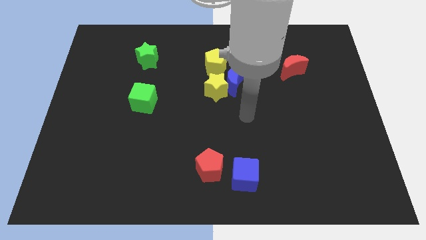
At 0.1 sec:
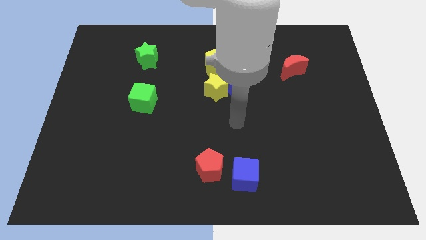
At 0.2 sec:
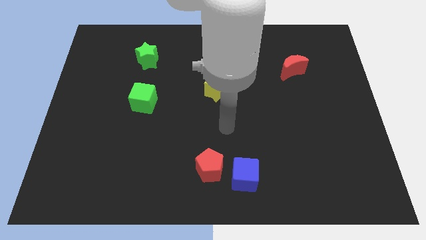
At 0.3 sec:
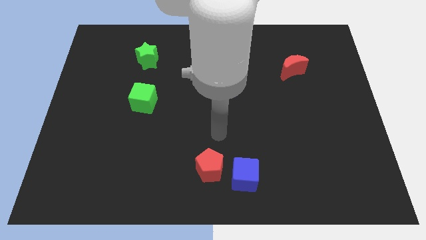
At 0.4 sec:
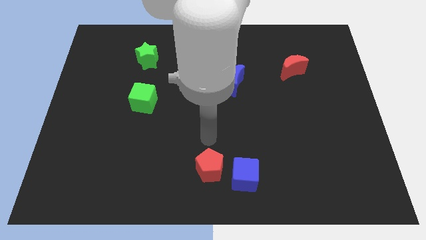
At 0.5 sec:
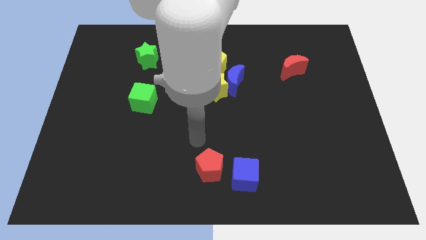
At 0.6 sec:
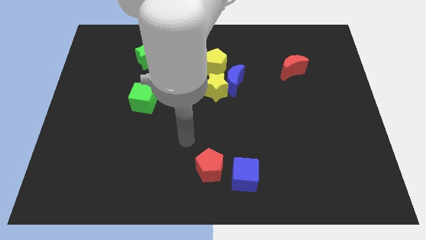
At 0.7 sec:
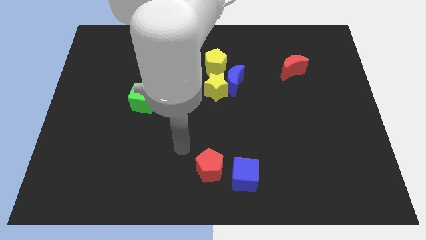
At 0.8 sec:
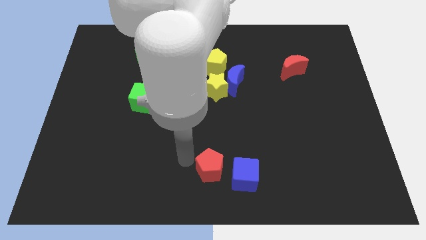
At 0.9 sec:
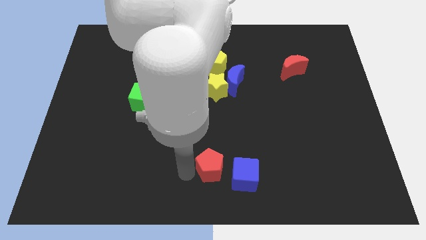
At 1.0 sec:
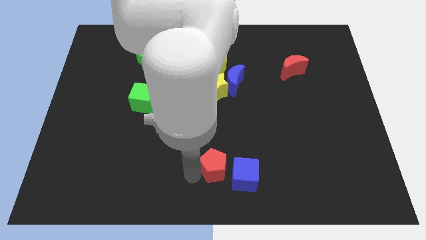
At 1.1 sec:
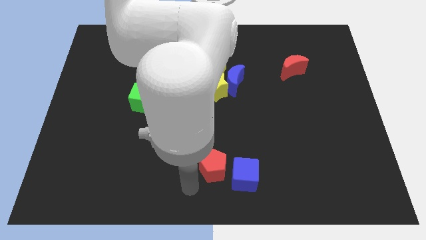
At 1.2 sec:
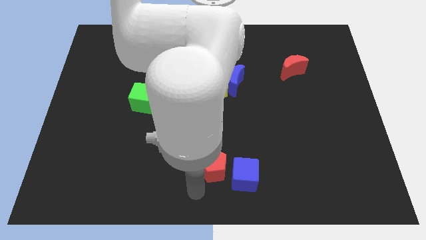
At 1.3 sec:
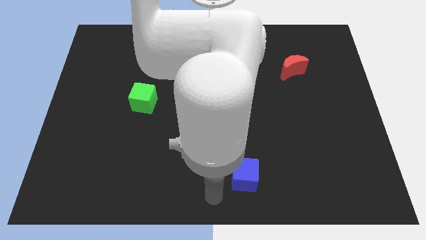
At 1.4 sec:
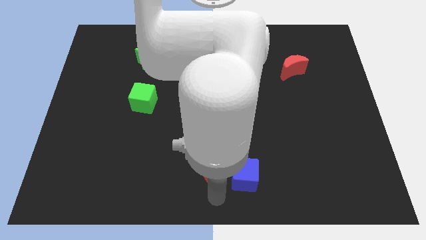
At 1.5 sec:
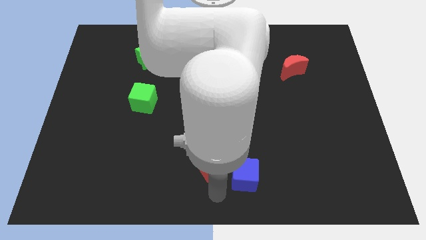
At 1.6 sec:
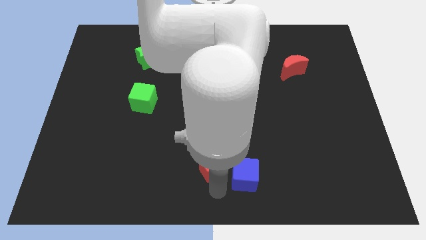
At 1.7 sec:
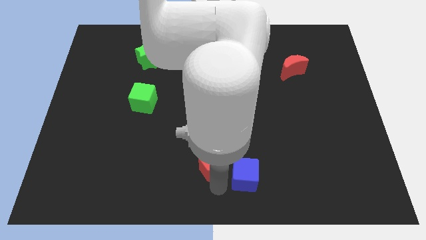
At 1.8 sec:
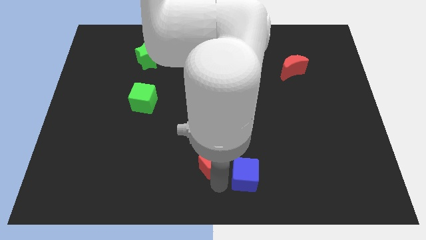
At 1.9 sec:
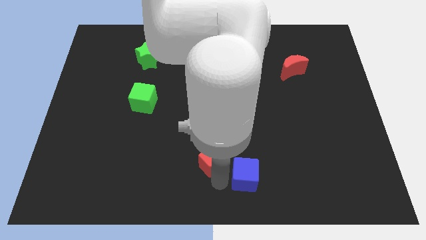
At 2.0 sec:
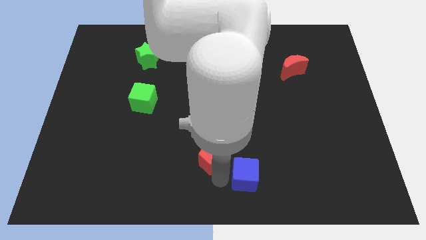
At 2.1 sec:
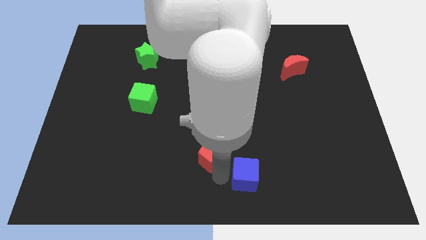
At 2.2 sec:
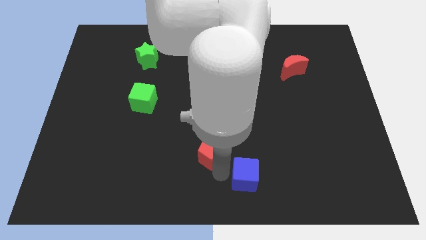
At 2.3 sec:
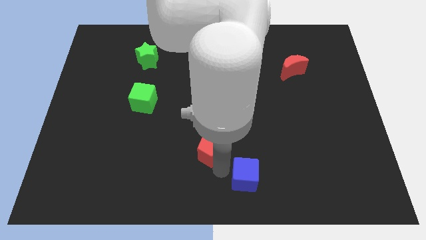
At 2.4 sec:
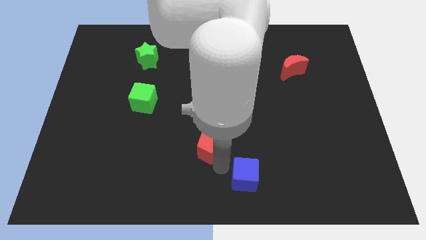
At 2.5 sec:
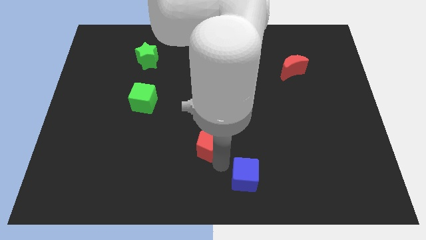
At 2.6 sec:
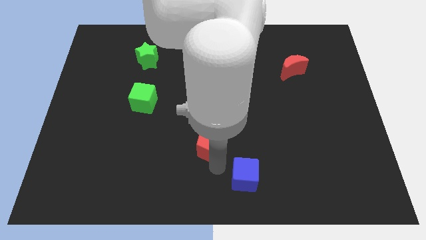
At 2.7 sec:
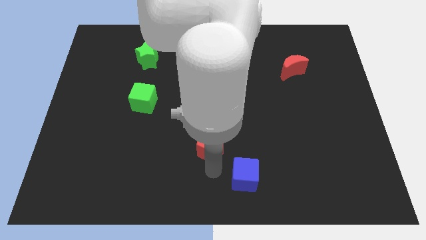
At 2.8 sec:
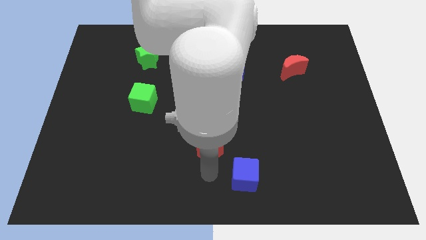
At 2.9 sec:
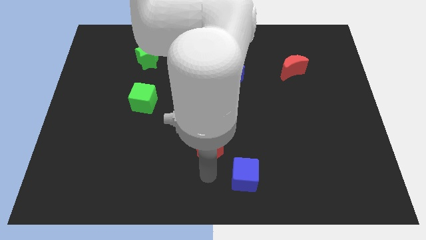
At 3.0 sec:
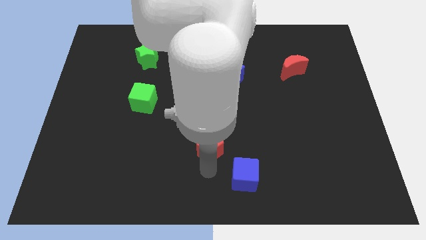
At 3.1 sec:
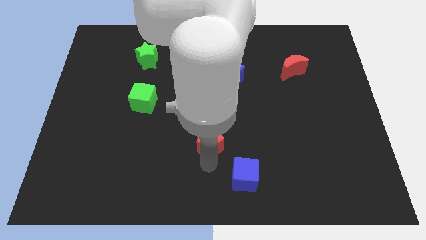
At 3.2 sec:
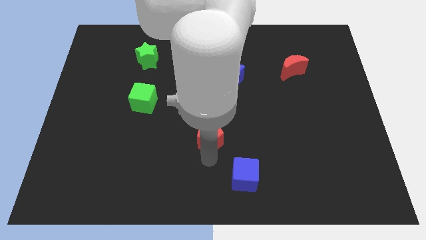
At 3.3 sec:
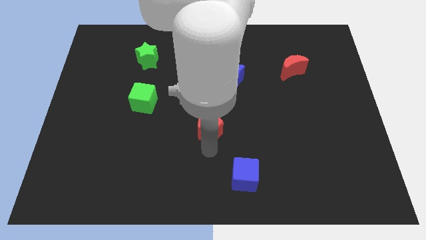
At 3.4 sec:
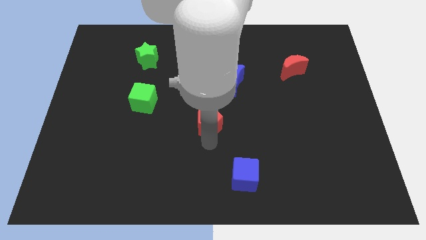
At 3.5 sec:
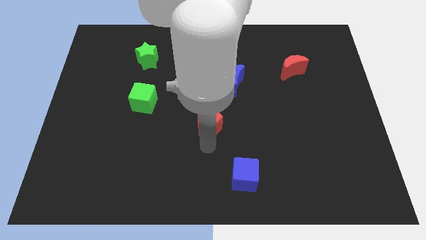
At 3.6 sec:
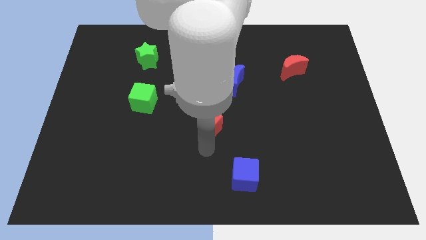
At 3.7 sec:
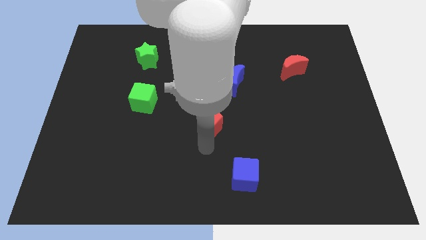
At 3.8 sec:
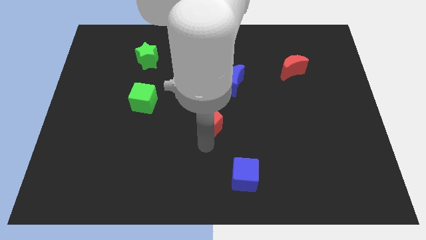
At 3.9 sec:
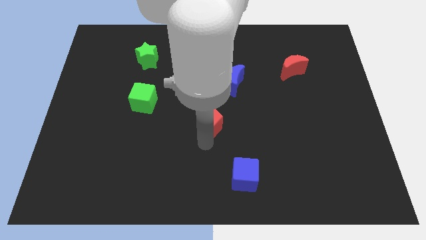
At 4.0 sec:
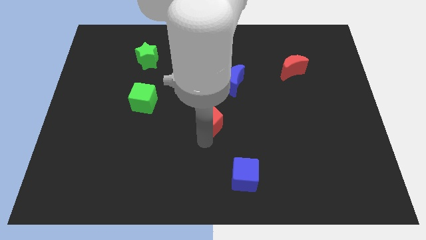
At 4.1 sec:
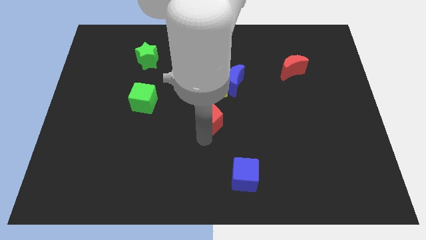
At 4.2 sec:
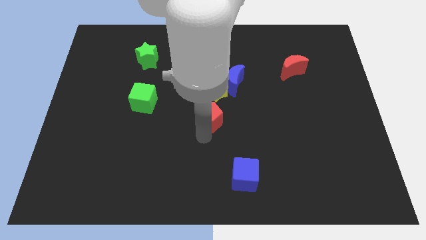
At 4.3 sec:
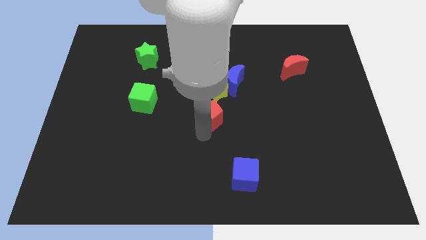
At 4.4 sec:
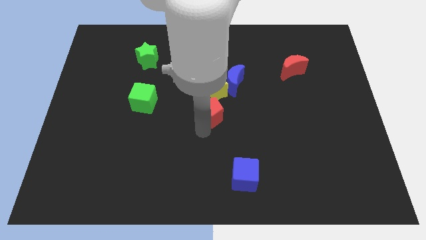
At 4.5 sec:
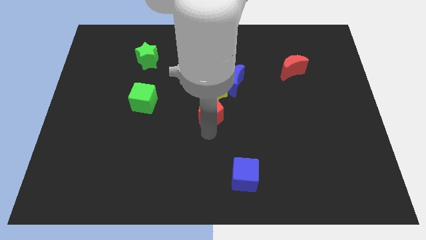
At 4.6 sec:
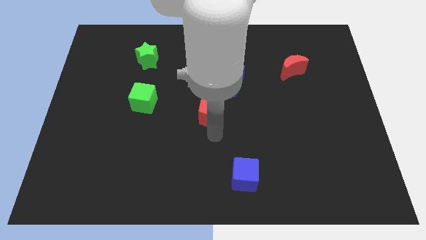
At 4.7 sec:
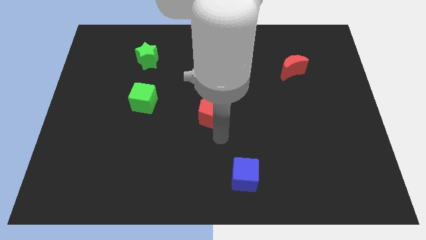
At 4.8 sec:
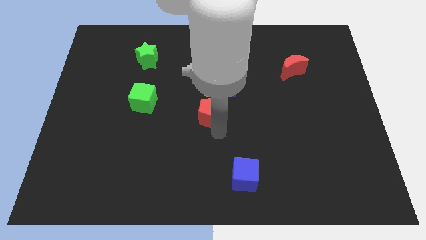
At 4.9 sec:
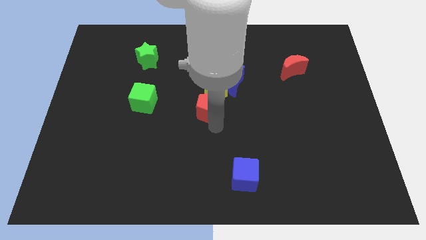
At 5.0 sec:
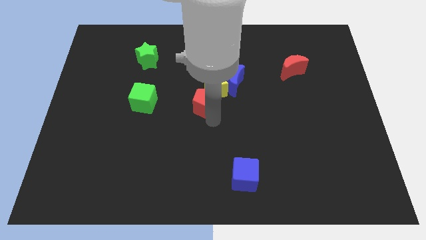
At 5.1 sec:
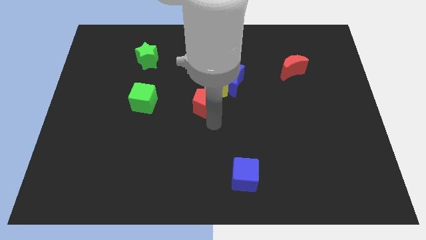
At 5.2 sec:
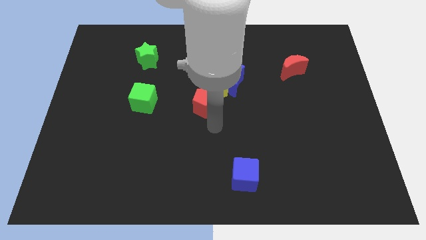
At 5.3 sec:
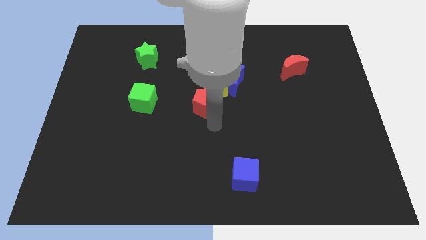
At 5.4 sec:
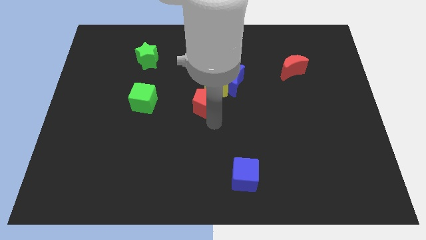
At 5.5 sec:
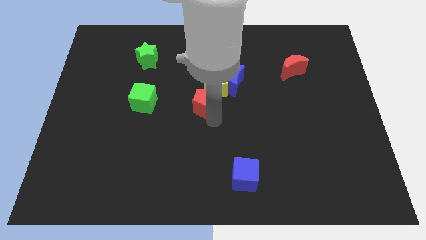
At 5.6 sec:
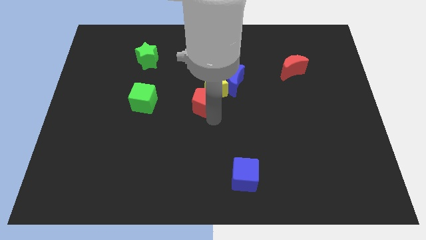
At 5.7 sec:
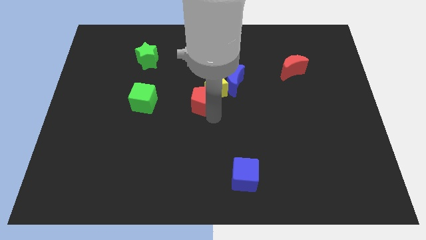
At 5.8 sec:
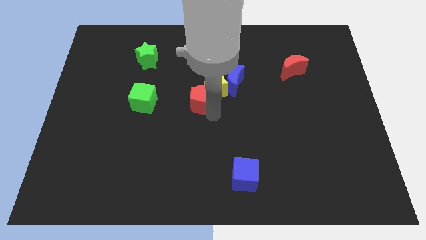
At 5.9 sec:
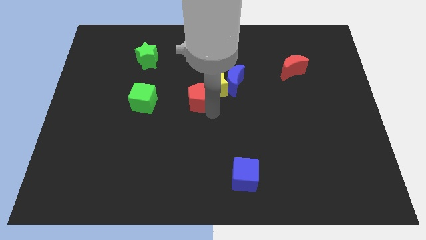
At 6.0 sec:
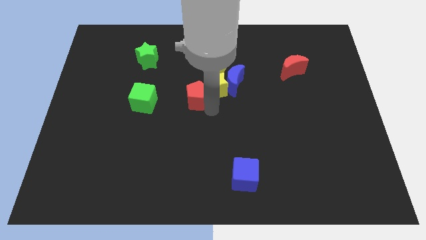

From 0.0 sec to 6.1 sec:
slide the red pentagon left of the blue moon

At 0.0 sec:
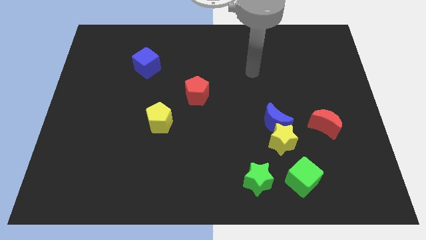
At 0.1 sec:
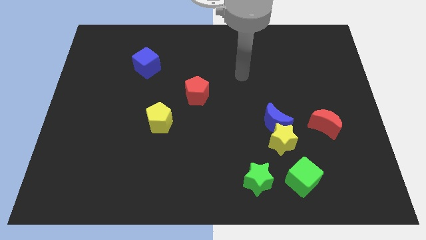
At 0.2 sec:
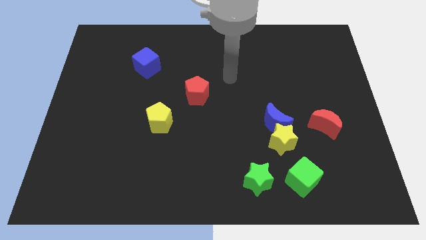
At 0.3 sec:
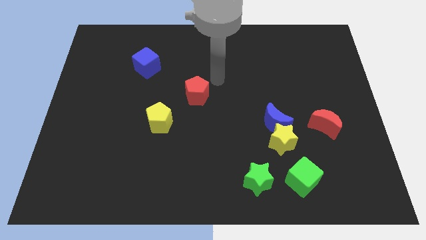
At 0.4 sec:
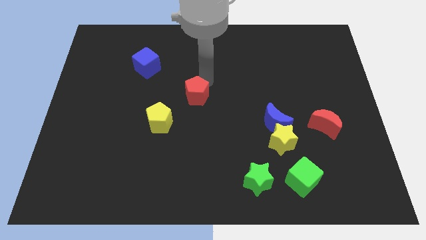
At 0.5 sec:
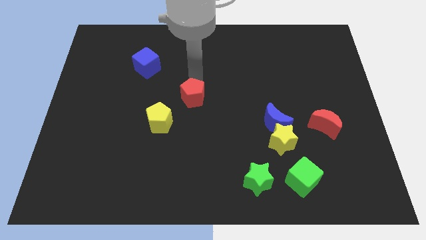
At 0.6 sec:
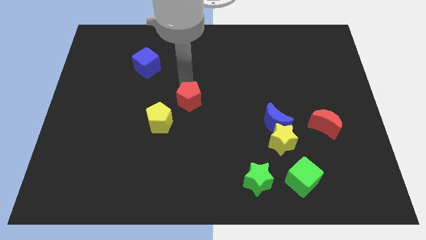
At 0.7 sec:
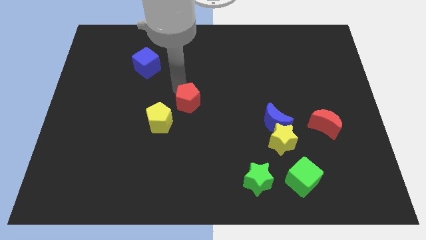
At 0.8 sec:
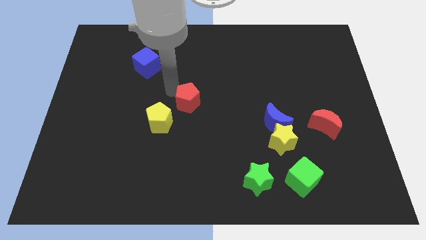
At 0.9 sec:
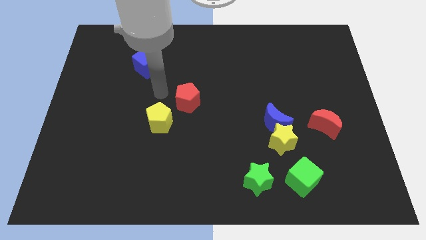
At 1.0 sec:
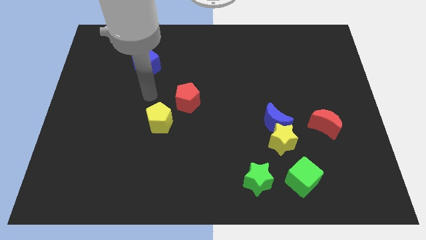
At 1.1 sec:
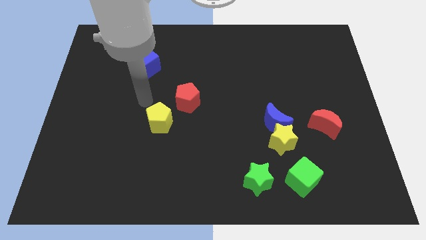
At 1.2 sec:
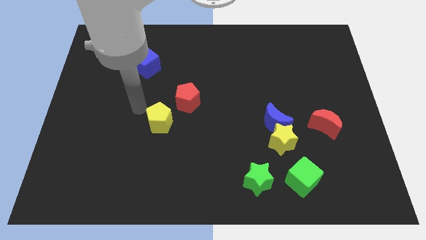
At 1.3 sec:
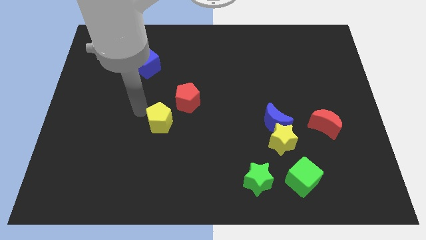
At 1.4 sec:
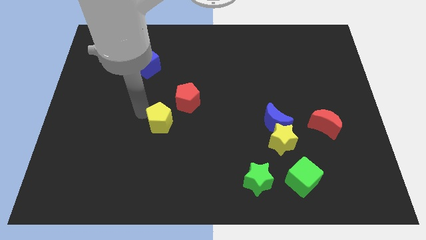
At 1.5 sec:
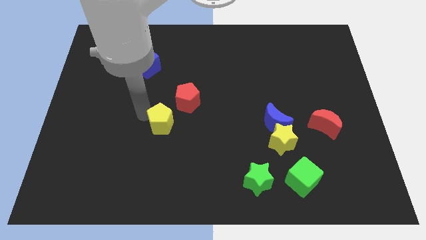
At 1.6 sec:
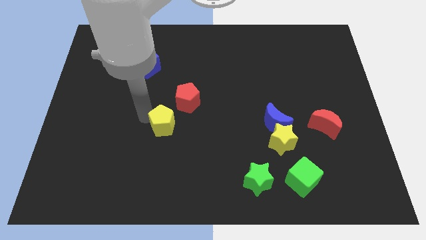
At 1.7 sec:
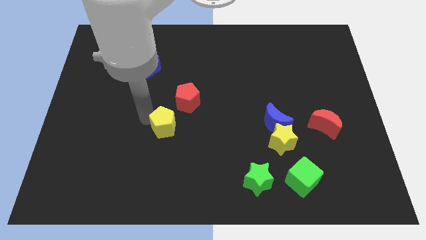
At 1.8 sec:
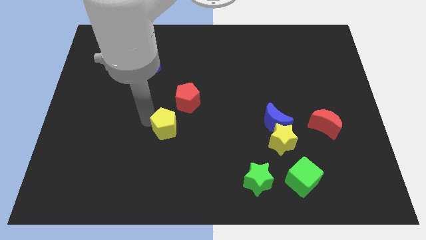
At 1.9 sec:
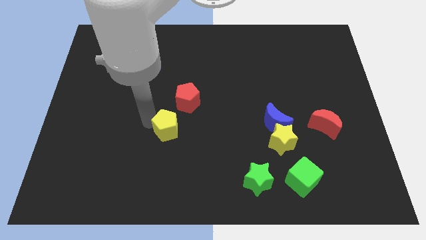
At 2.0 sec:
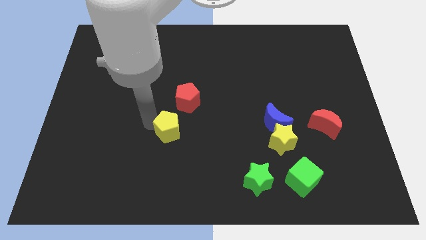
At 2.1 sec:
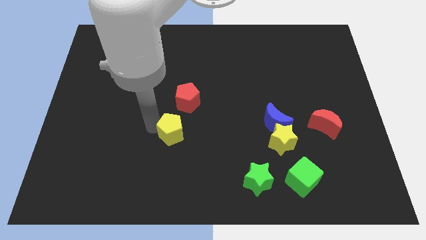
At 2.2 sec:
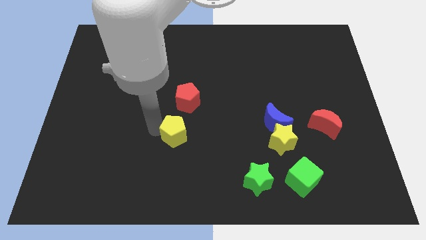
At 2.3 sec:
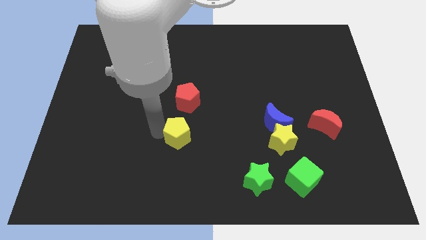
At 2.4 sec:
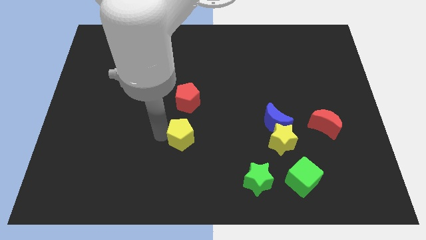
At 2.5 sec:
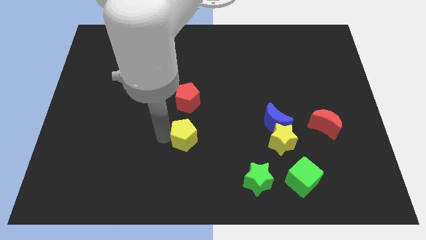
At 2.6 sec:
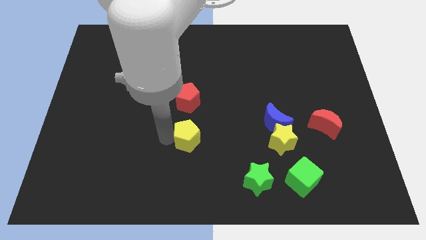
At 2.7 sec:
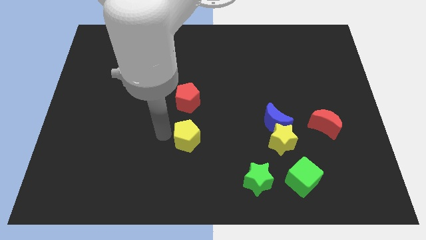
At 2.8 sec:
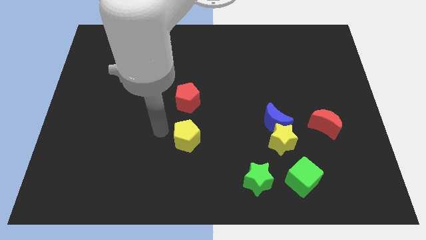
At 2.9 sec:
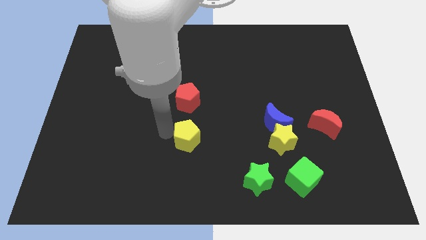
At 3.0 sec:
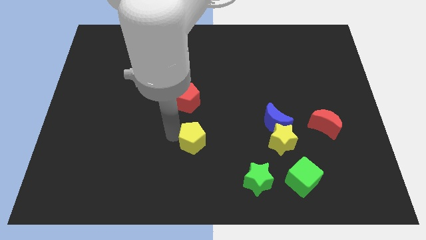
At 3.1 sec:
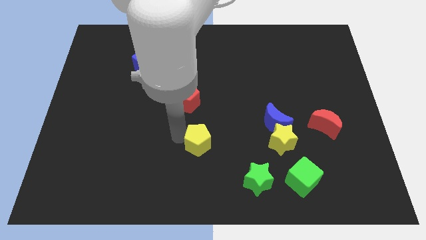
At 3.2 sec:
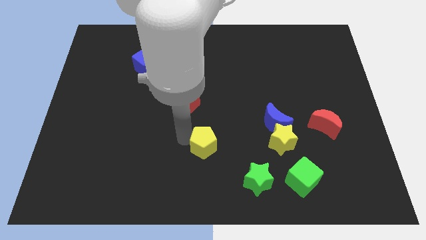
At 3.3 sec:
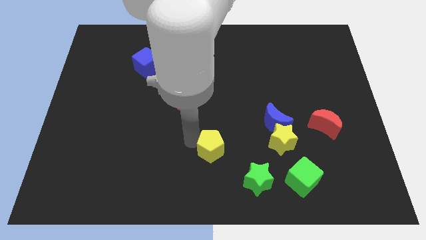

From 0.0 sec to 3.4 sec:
push the yellow pentagon to the top left of the green star
